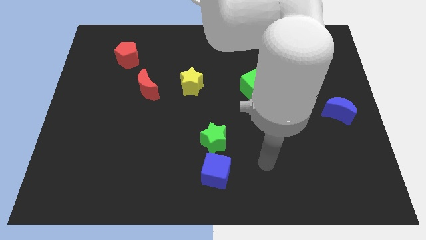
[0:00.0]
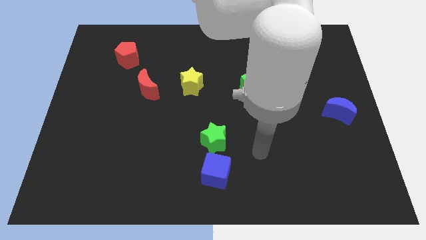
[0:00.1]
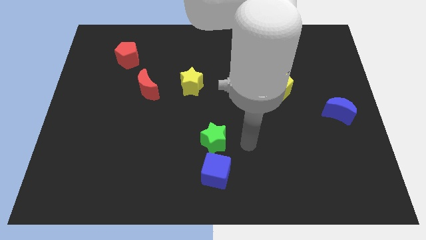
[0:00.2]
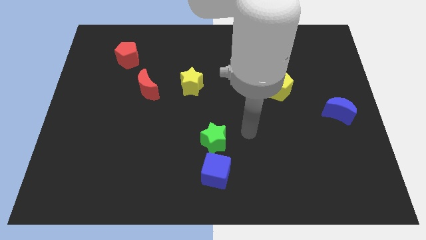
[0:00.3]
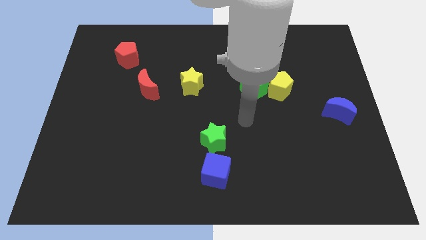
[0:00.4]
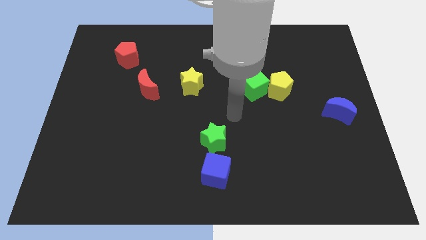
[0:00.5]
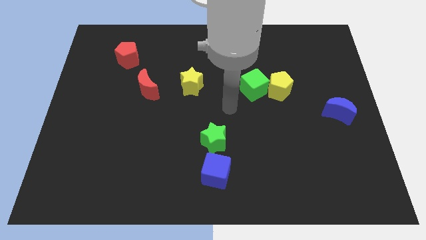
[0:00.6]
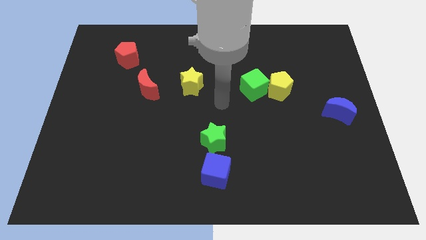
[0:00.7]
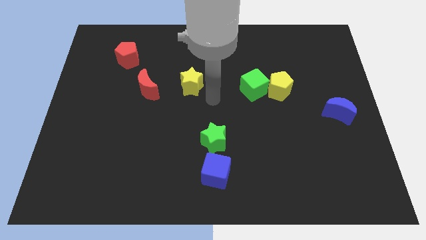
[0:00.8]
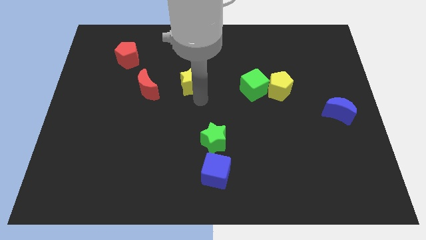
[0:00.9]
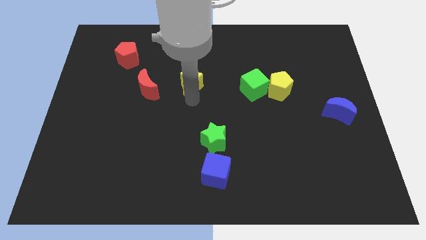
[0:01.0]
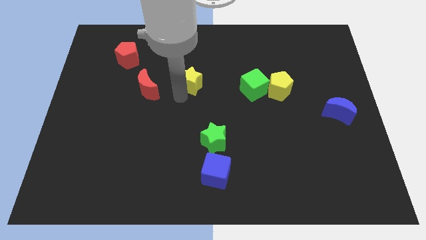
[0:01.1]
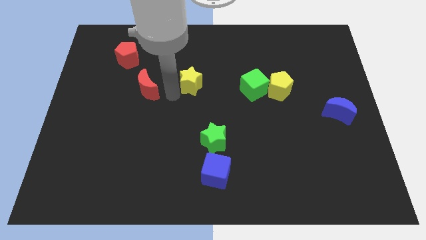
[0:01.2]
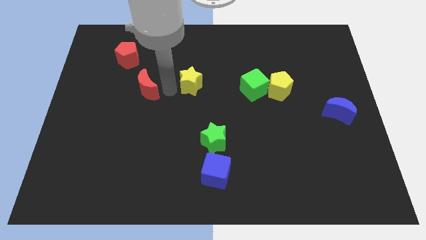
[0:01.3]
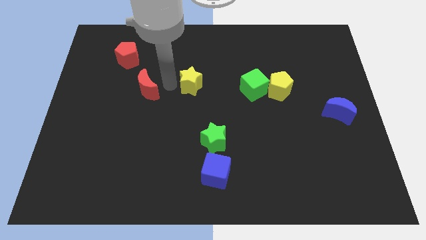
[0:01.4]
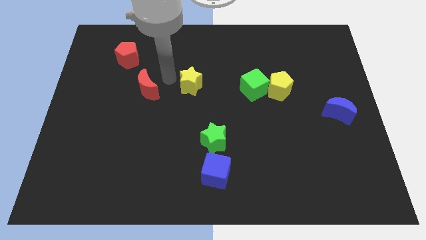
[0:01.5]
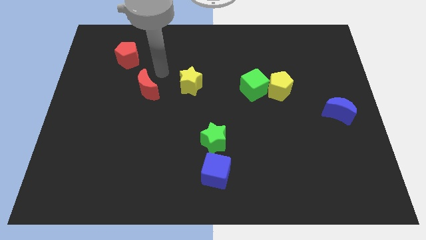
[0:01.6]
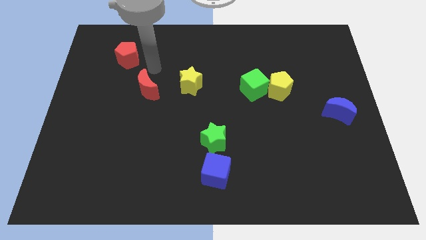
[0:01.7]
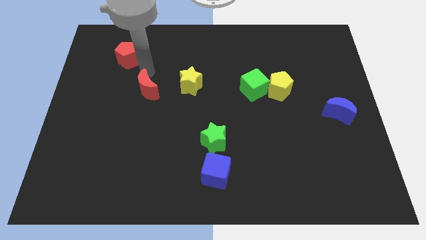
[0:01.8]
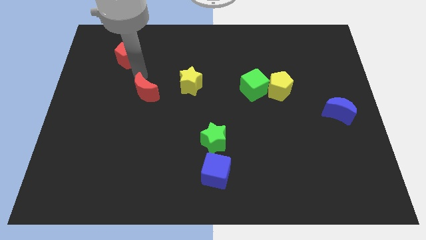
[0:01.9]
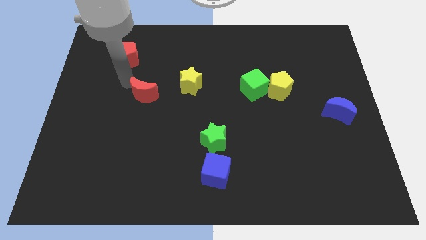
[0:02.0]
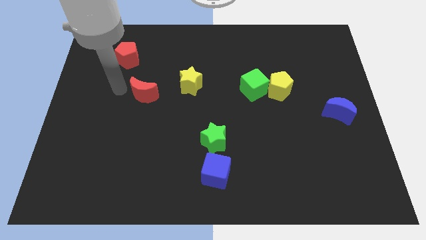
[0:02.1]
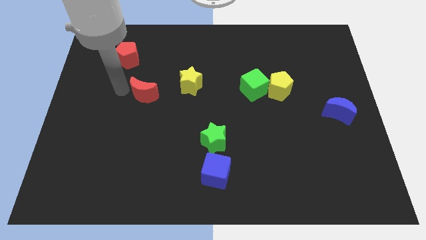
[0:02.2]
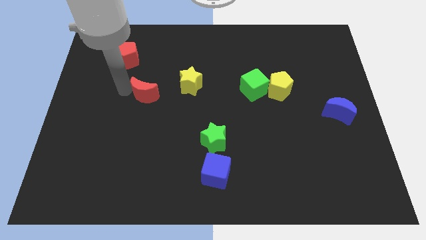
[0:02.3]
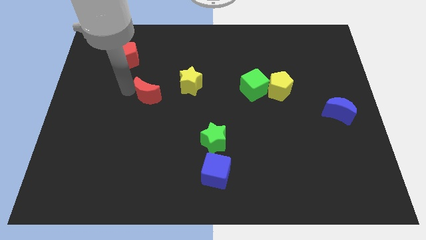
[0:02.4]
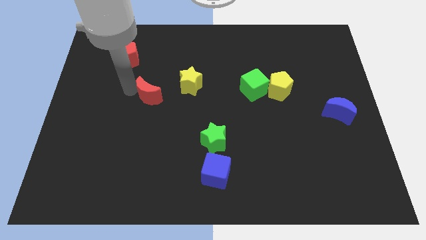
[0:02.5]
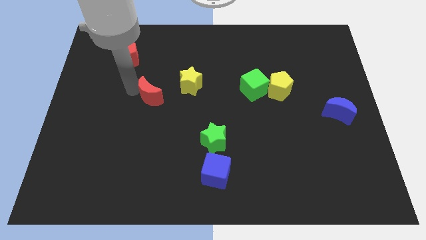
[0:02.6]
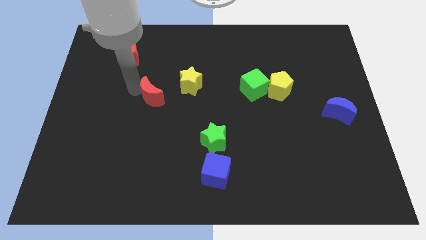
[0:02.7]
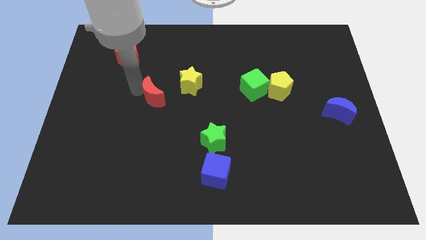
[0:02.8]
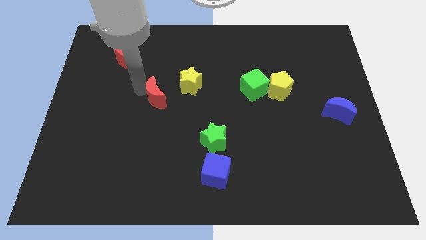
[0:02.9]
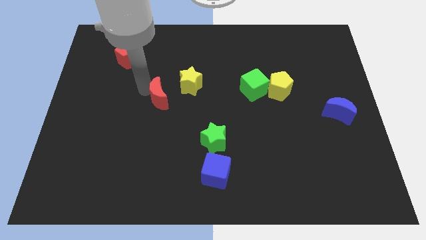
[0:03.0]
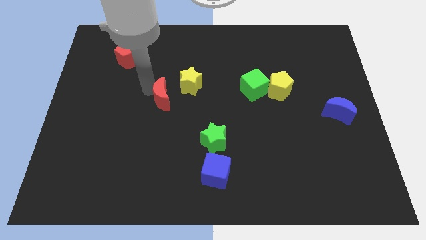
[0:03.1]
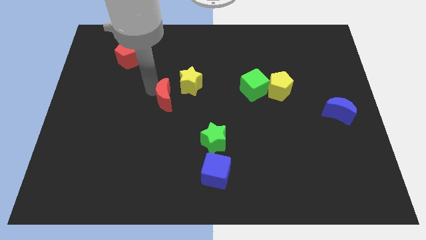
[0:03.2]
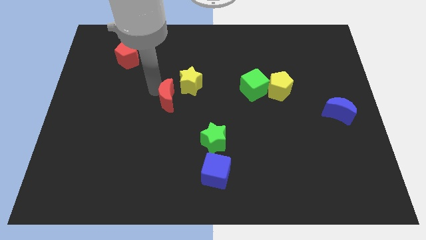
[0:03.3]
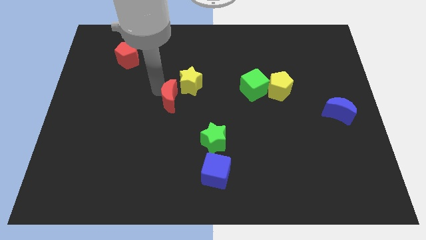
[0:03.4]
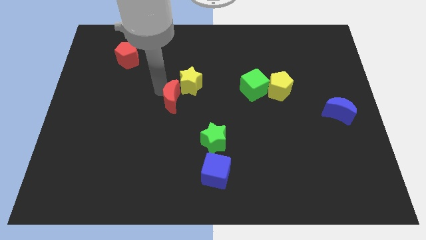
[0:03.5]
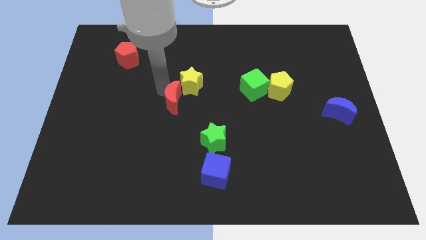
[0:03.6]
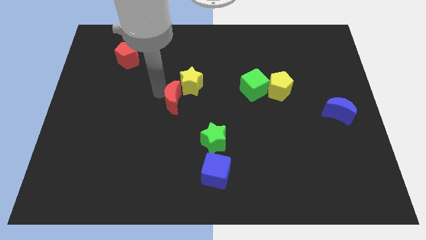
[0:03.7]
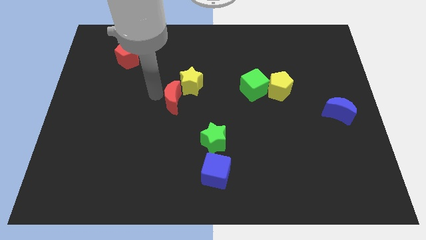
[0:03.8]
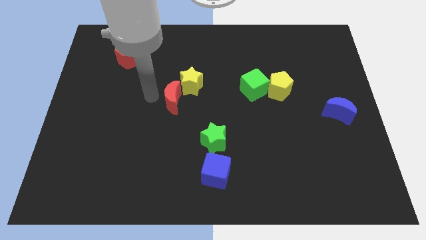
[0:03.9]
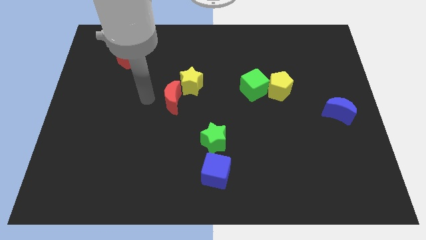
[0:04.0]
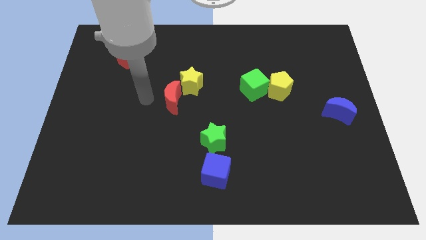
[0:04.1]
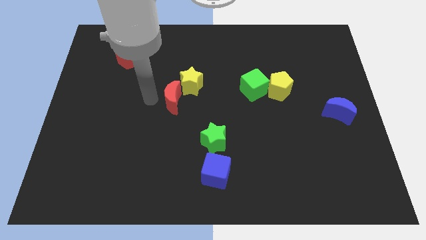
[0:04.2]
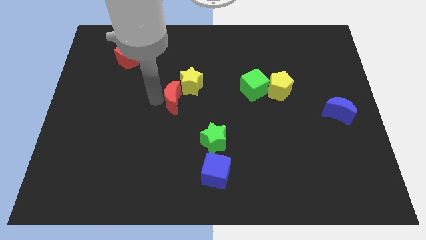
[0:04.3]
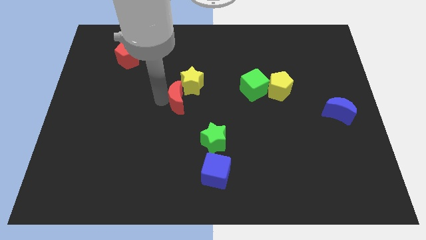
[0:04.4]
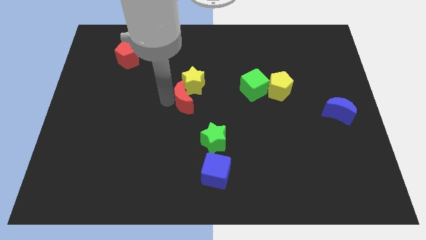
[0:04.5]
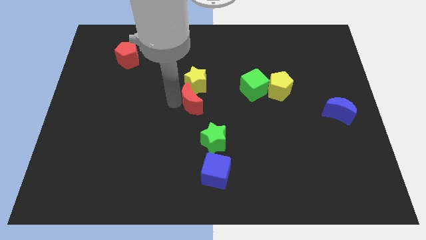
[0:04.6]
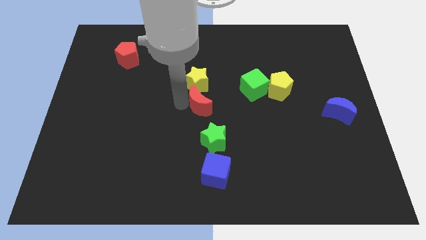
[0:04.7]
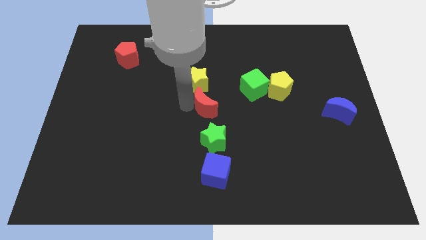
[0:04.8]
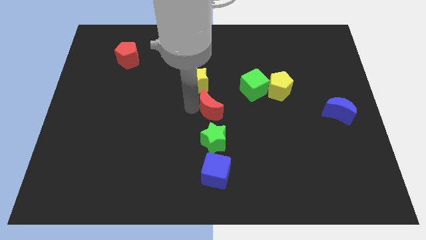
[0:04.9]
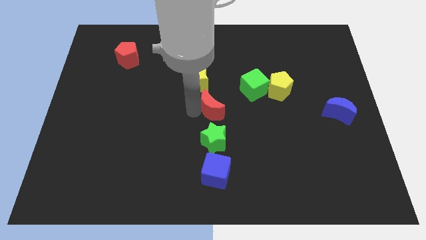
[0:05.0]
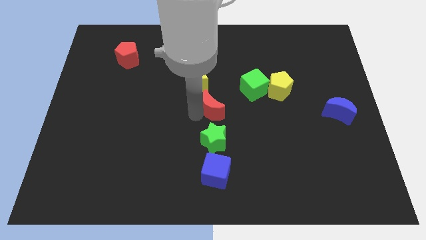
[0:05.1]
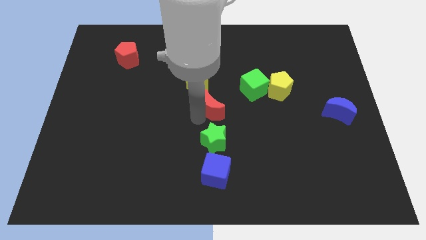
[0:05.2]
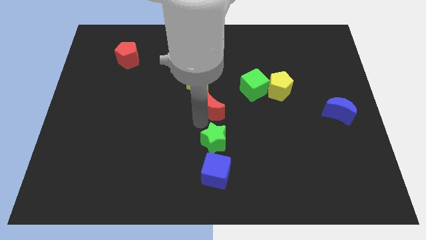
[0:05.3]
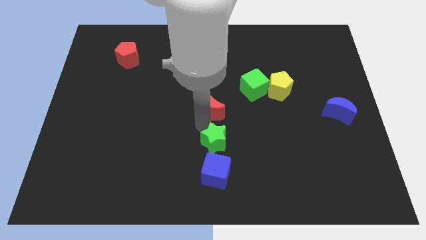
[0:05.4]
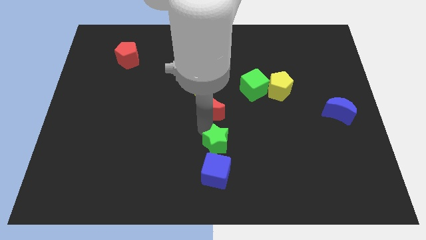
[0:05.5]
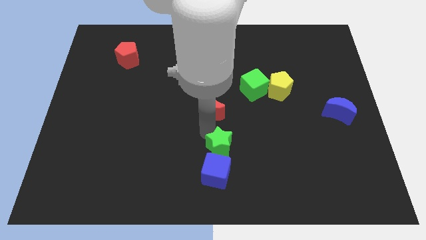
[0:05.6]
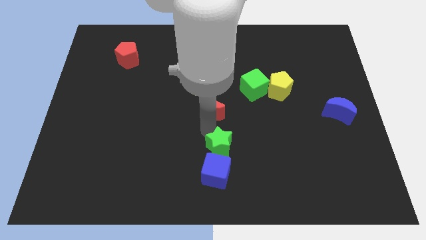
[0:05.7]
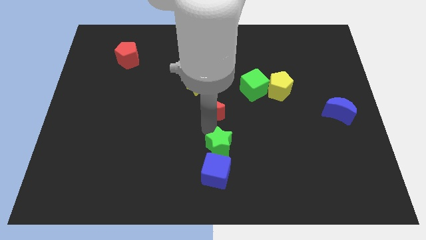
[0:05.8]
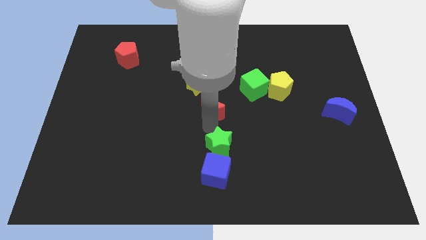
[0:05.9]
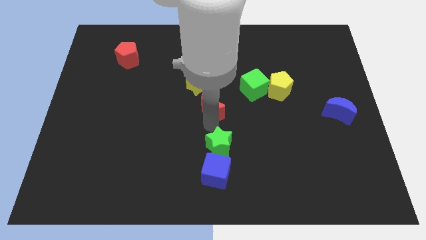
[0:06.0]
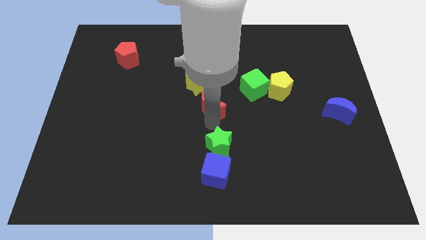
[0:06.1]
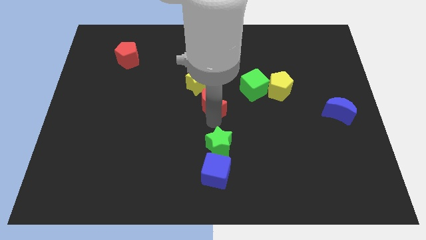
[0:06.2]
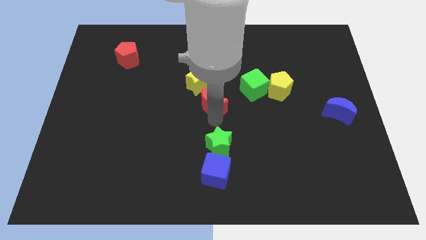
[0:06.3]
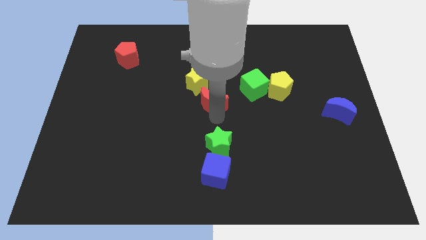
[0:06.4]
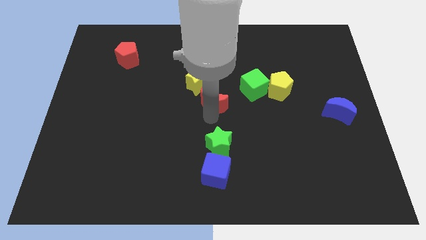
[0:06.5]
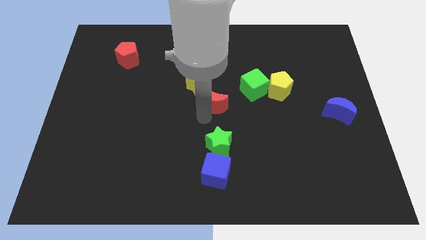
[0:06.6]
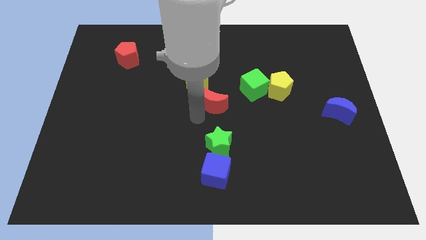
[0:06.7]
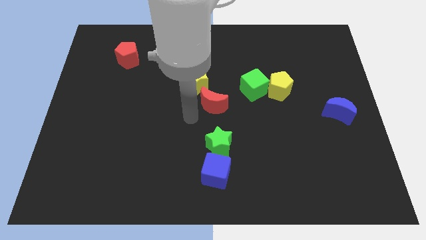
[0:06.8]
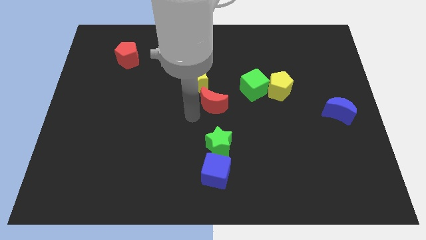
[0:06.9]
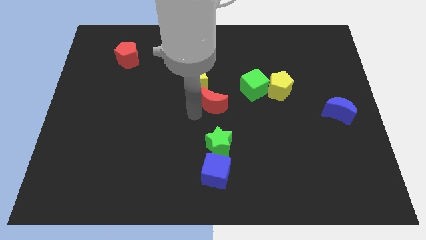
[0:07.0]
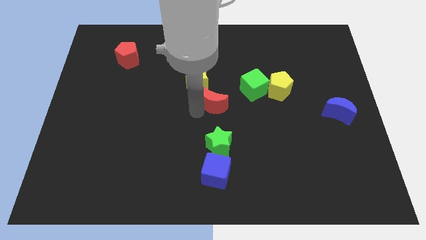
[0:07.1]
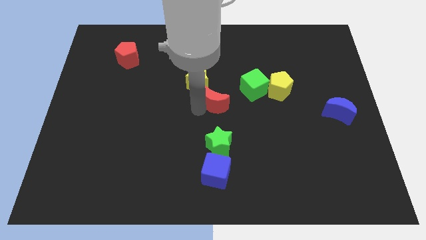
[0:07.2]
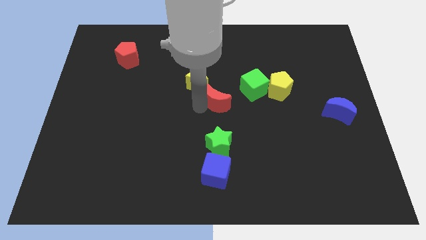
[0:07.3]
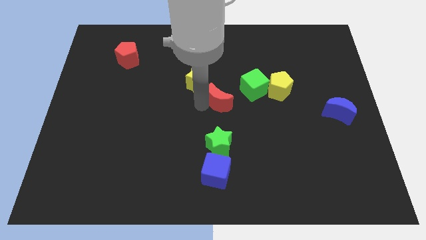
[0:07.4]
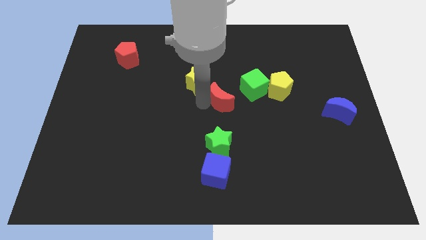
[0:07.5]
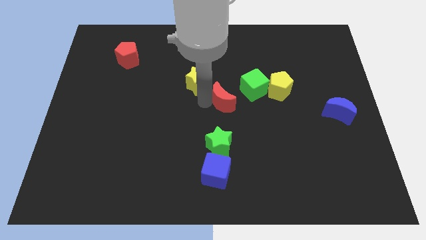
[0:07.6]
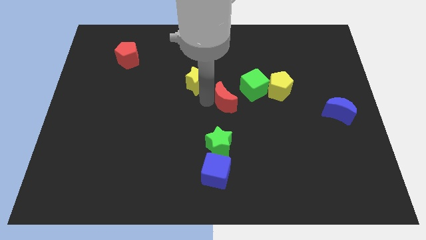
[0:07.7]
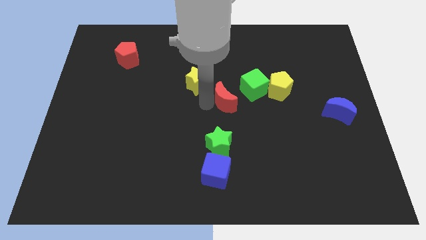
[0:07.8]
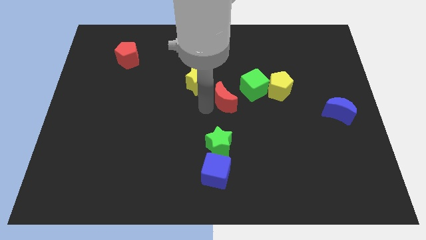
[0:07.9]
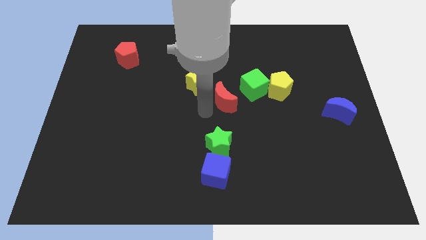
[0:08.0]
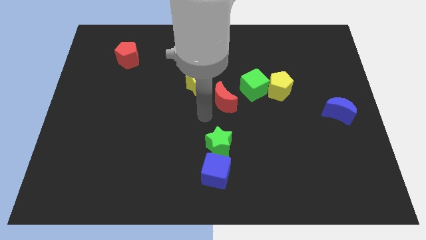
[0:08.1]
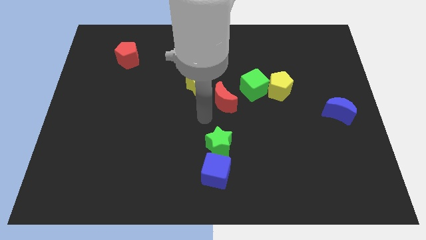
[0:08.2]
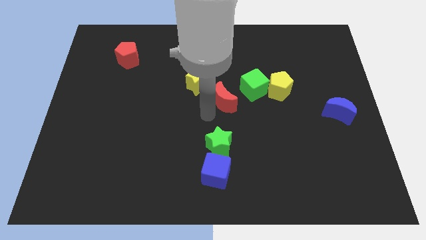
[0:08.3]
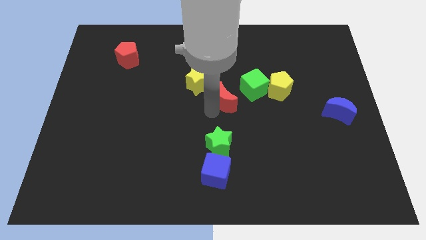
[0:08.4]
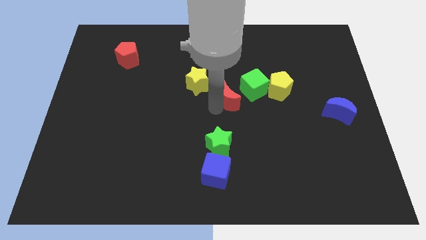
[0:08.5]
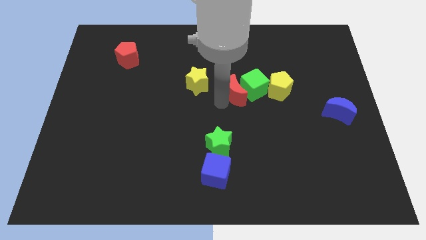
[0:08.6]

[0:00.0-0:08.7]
move the red moon towards the green cube
